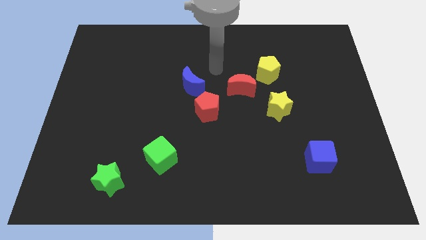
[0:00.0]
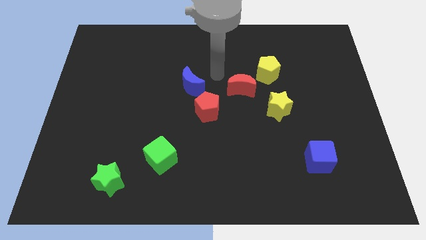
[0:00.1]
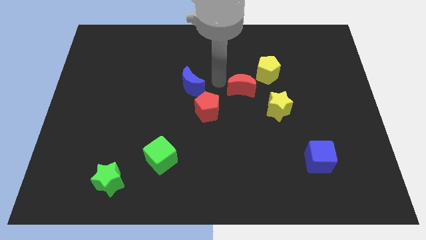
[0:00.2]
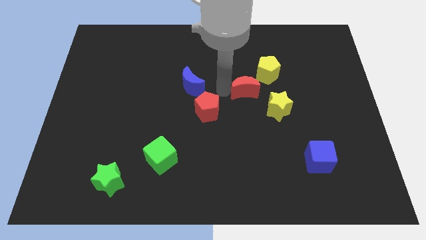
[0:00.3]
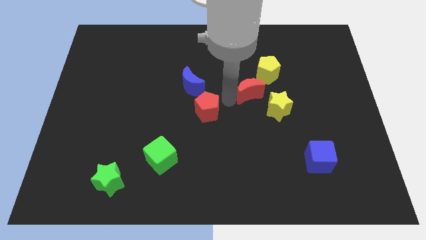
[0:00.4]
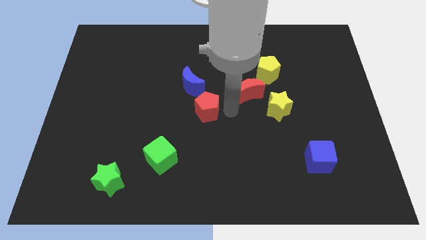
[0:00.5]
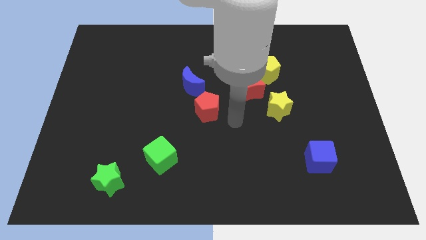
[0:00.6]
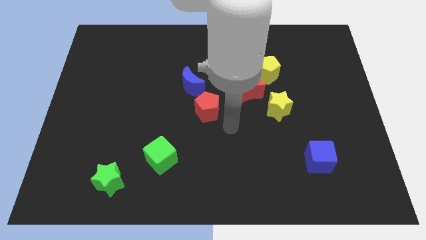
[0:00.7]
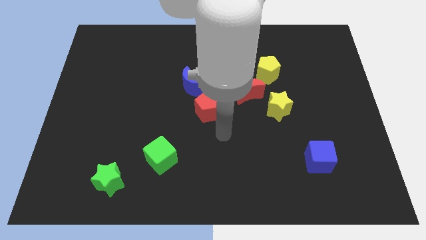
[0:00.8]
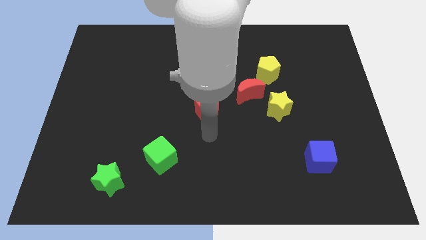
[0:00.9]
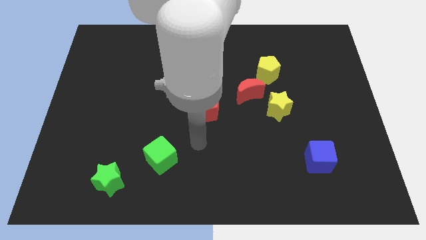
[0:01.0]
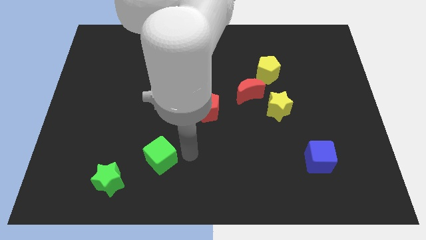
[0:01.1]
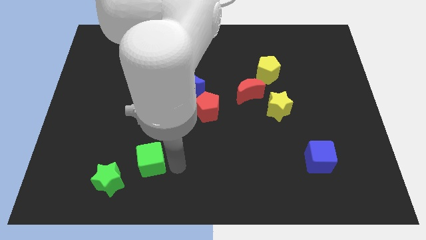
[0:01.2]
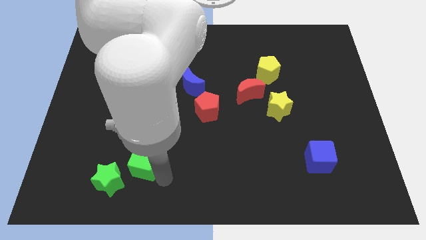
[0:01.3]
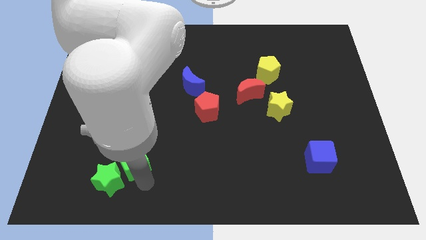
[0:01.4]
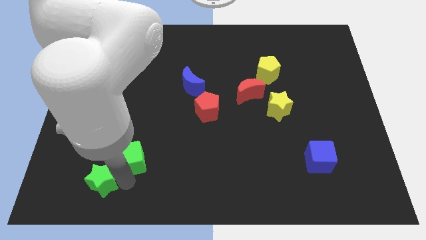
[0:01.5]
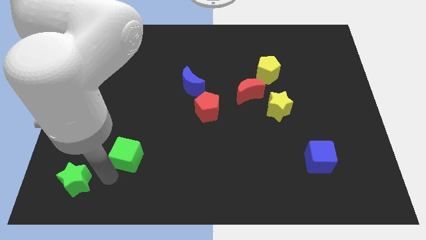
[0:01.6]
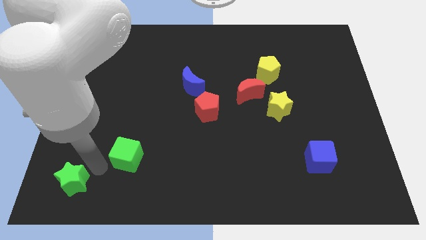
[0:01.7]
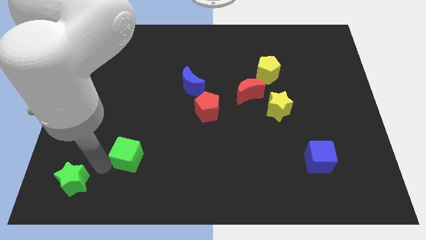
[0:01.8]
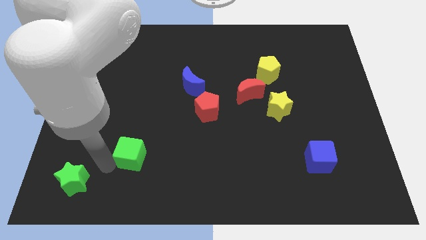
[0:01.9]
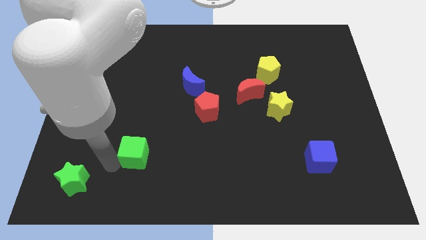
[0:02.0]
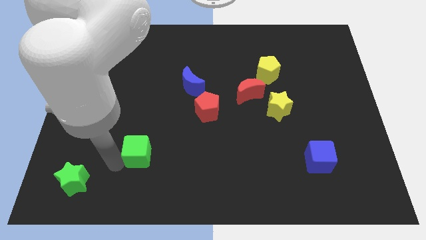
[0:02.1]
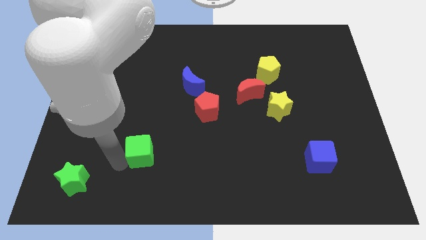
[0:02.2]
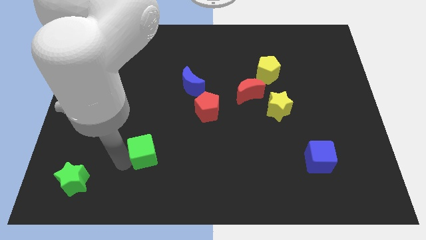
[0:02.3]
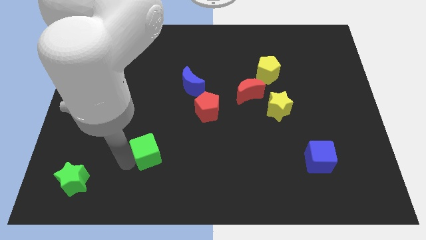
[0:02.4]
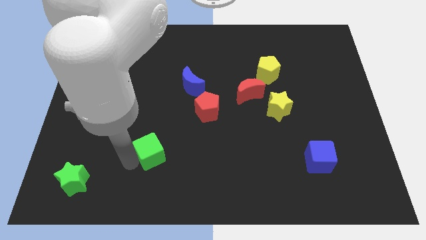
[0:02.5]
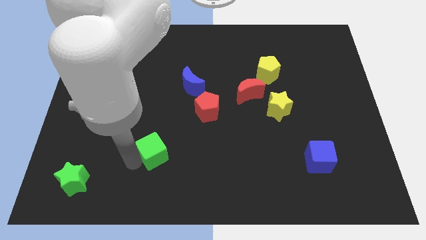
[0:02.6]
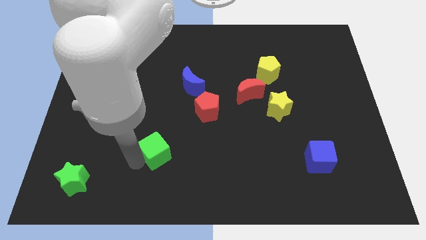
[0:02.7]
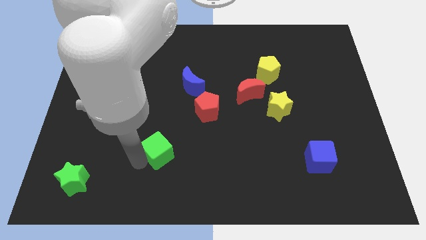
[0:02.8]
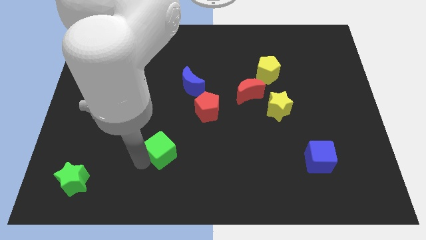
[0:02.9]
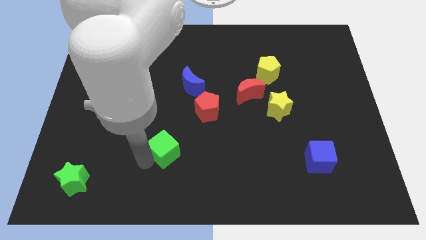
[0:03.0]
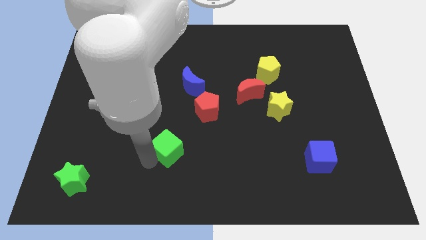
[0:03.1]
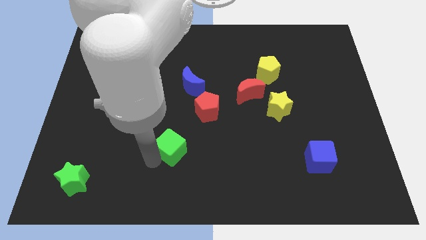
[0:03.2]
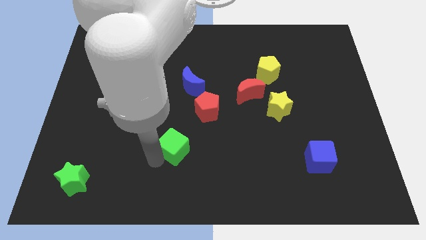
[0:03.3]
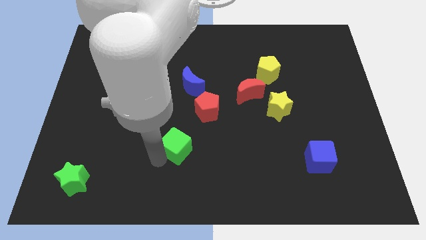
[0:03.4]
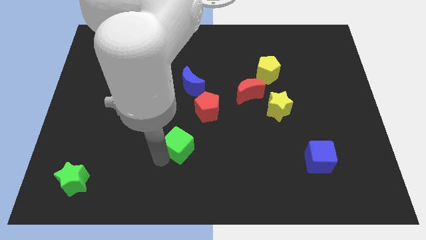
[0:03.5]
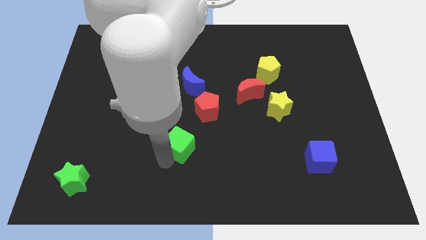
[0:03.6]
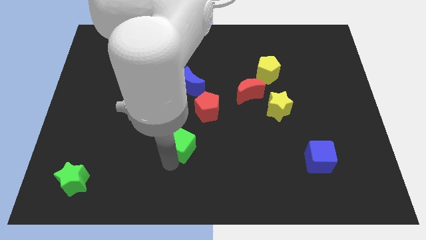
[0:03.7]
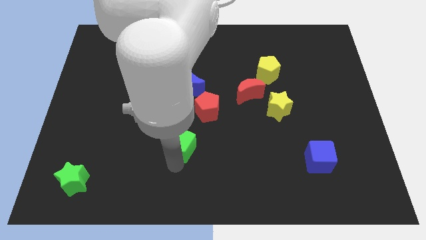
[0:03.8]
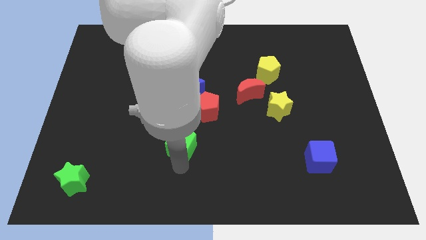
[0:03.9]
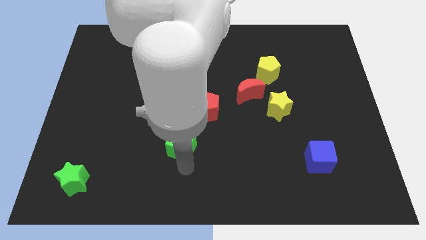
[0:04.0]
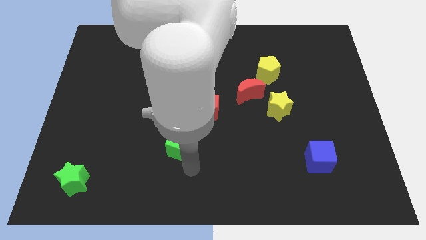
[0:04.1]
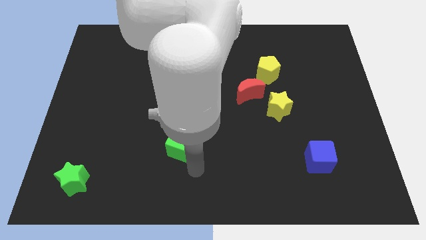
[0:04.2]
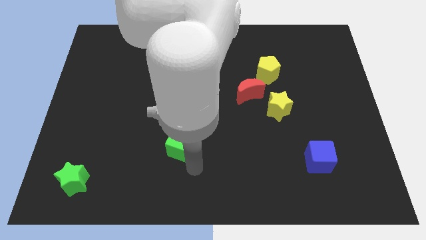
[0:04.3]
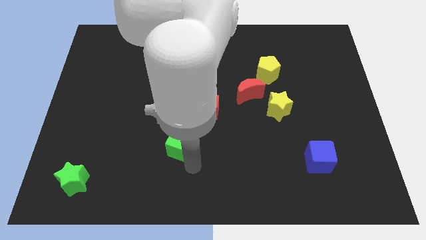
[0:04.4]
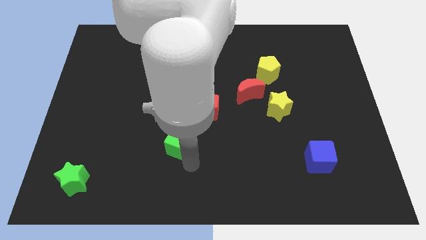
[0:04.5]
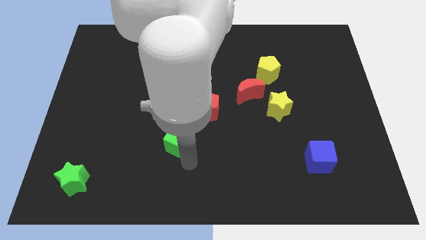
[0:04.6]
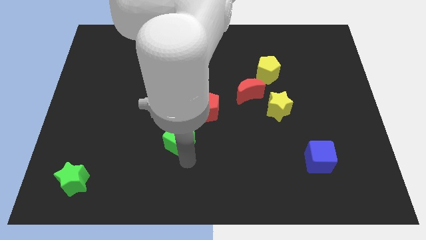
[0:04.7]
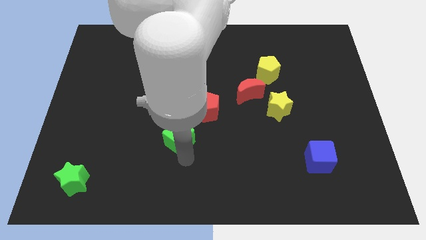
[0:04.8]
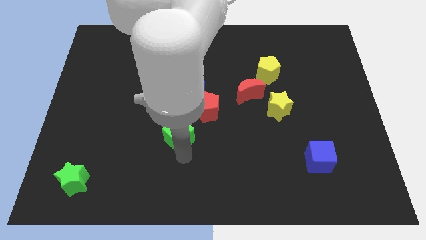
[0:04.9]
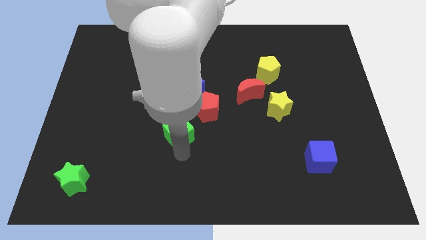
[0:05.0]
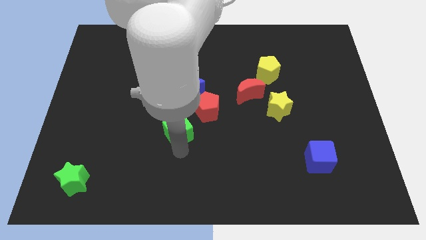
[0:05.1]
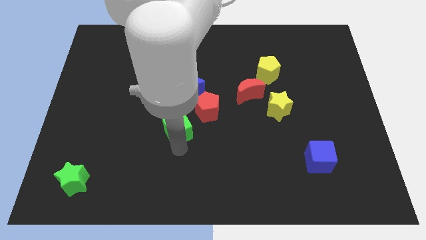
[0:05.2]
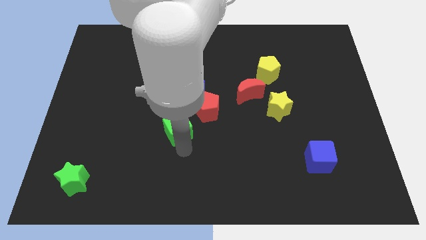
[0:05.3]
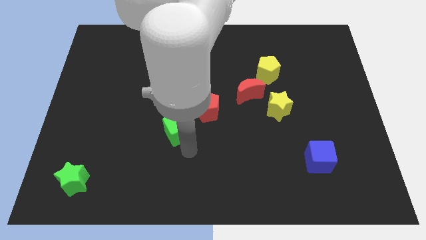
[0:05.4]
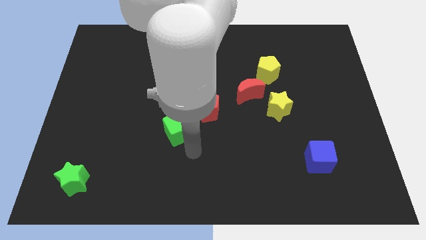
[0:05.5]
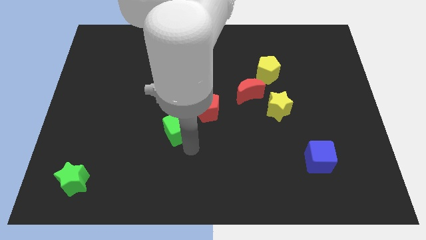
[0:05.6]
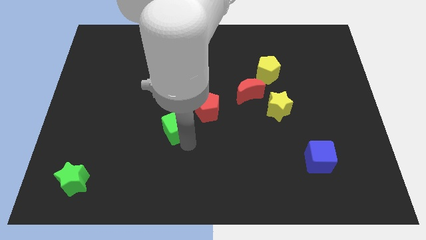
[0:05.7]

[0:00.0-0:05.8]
slightly push the green cube up

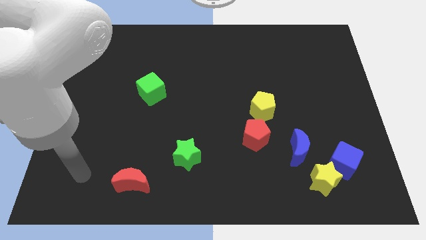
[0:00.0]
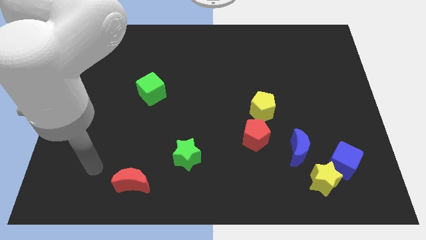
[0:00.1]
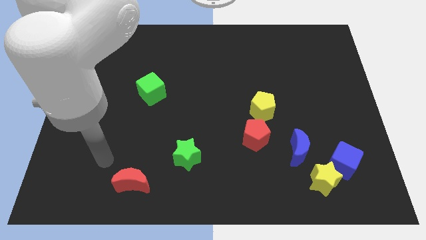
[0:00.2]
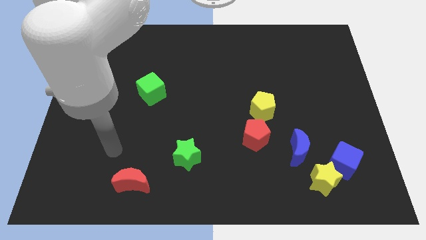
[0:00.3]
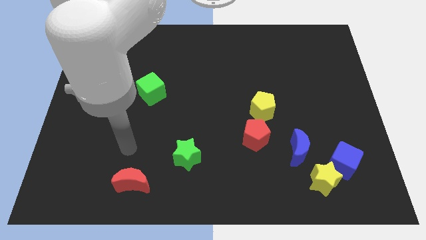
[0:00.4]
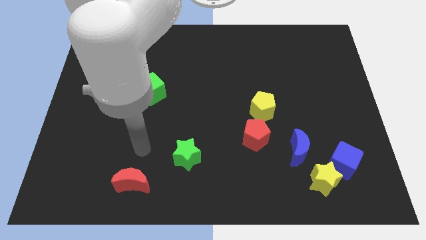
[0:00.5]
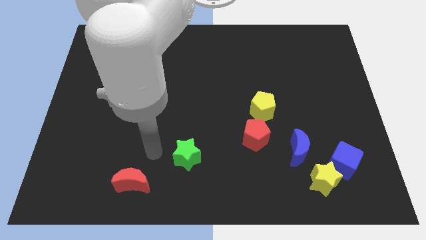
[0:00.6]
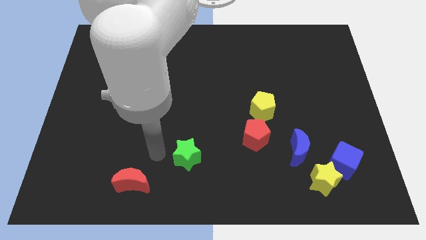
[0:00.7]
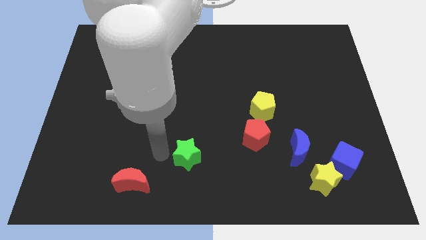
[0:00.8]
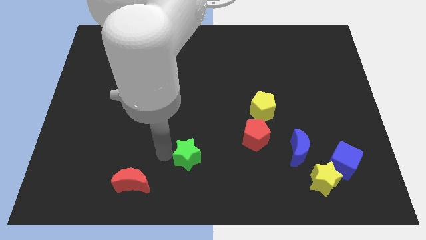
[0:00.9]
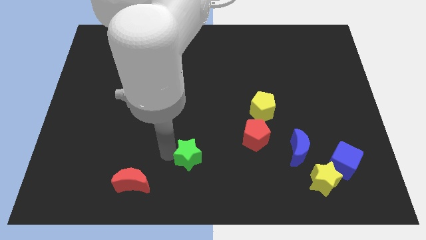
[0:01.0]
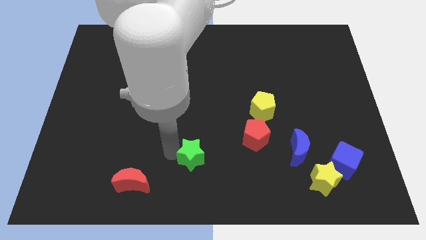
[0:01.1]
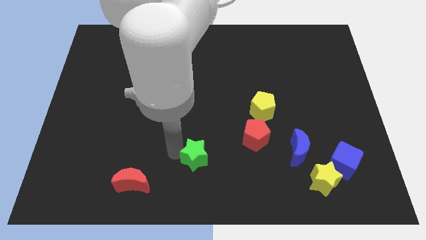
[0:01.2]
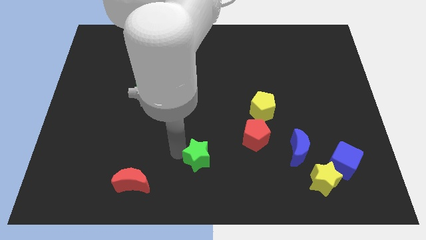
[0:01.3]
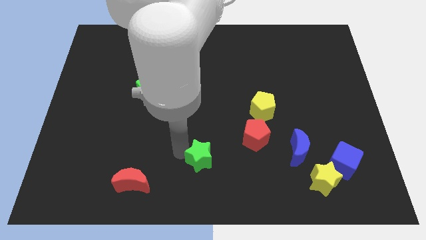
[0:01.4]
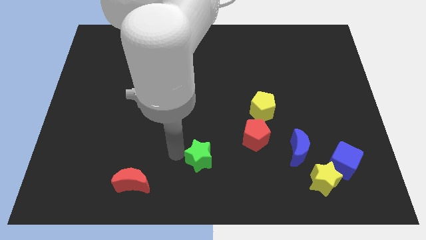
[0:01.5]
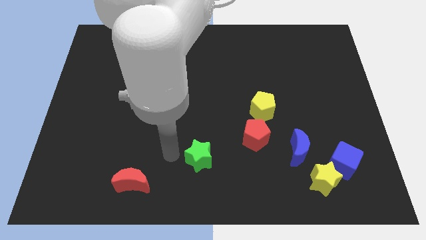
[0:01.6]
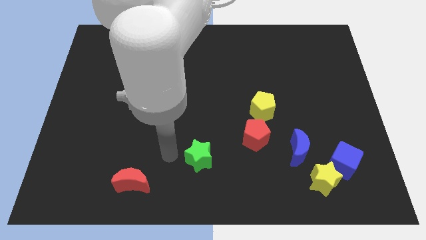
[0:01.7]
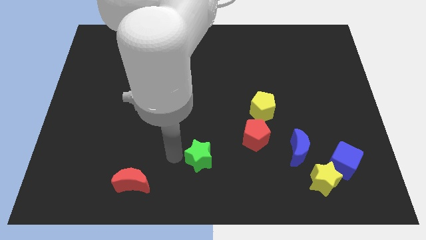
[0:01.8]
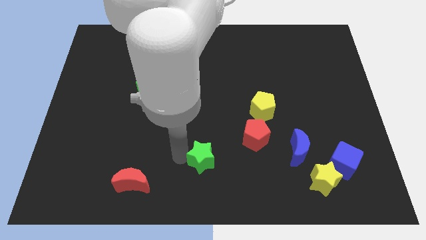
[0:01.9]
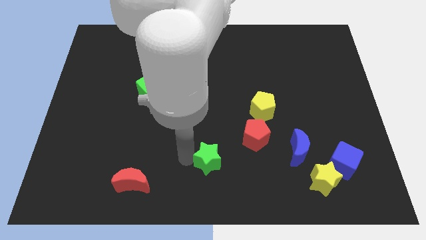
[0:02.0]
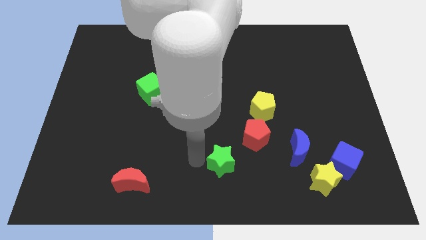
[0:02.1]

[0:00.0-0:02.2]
slide the green star right somewhat
